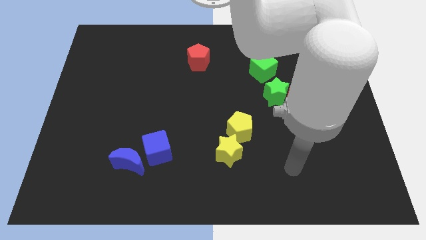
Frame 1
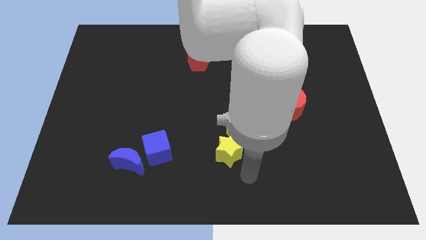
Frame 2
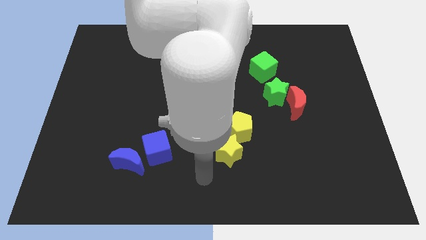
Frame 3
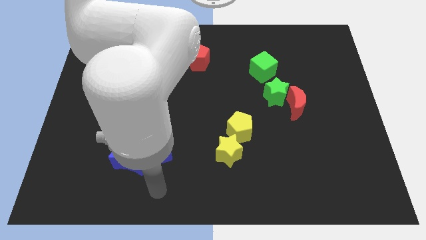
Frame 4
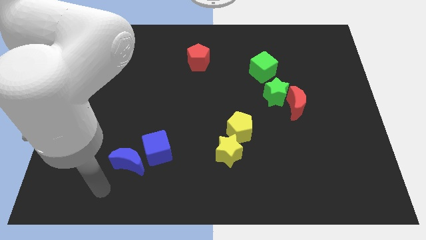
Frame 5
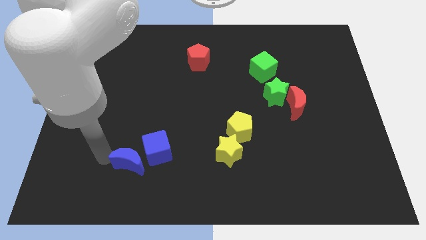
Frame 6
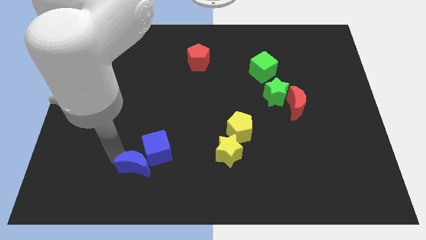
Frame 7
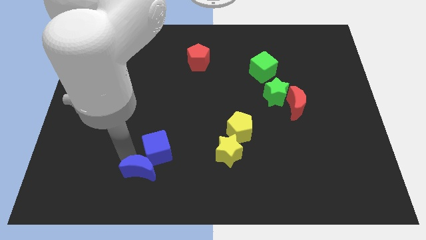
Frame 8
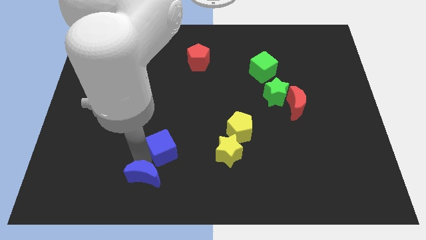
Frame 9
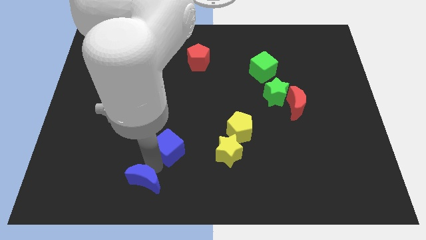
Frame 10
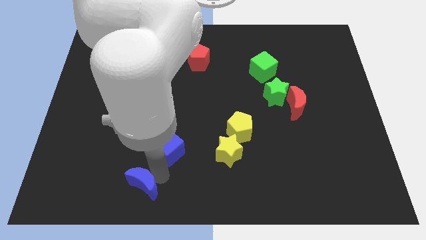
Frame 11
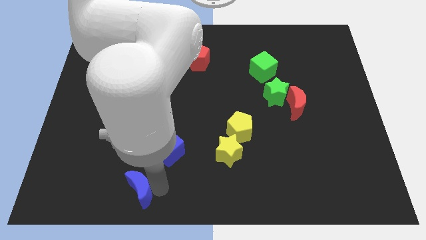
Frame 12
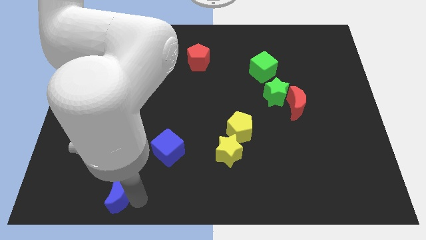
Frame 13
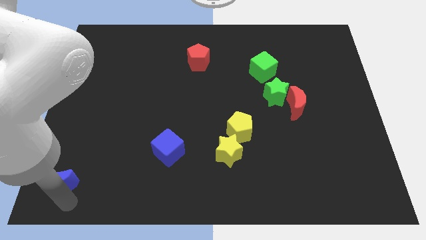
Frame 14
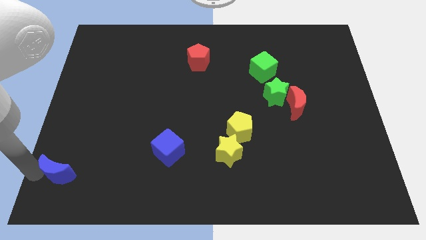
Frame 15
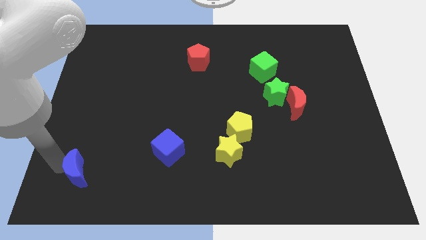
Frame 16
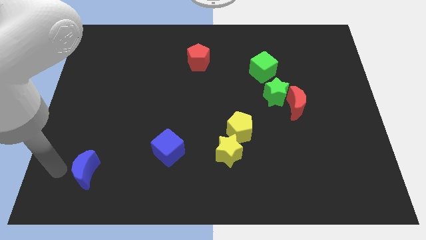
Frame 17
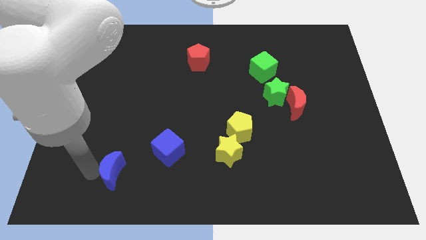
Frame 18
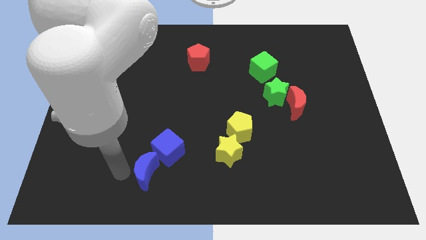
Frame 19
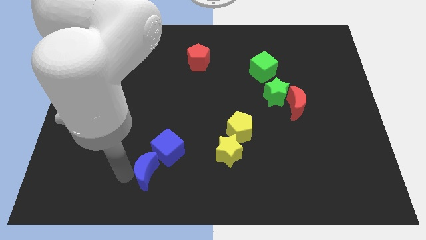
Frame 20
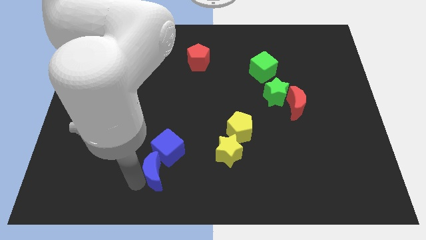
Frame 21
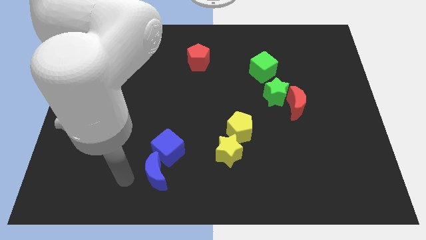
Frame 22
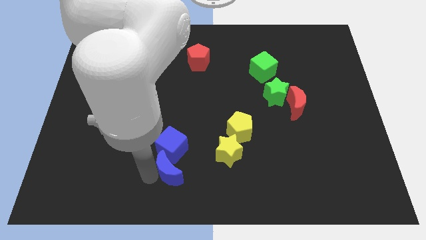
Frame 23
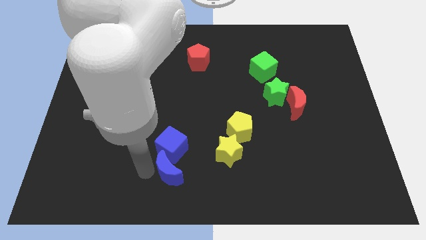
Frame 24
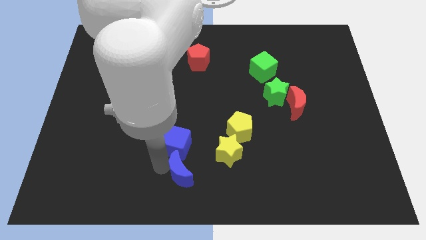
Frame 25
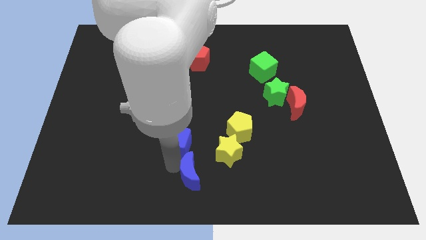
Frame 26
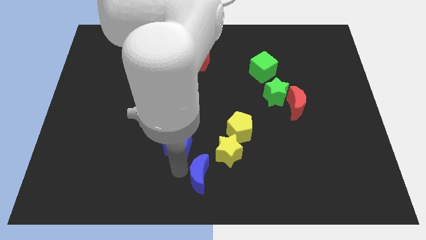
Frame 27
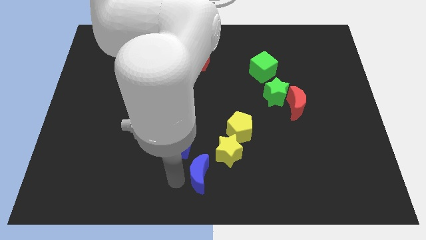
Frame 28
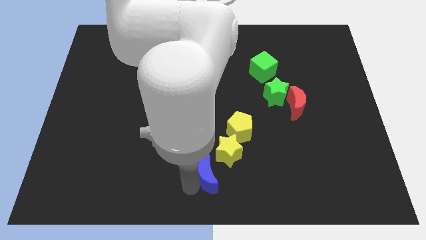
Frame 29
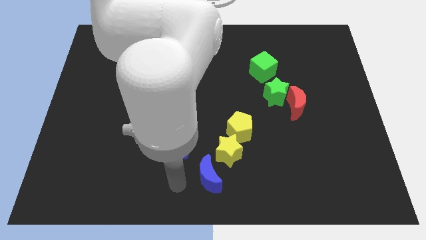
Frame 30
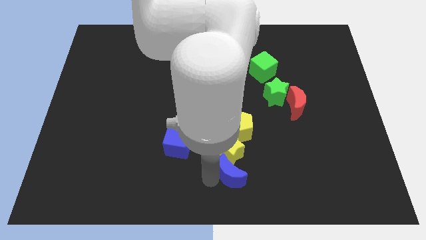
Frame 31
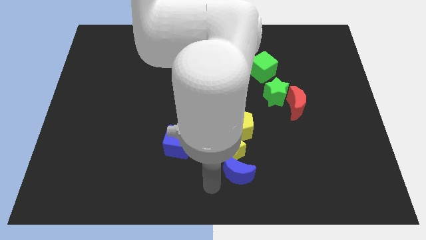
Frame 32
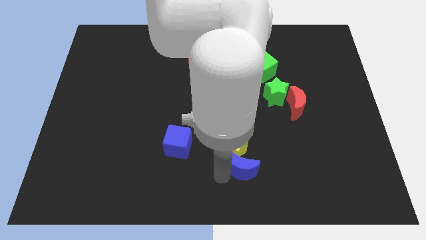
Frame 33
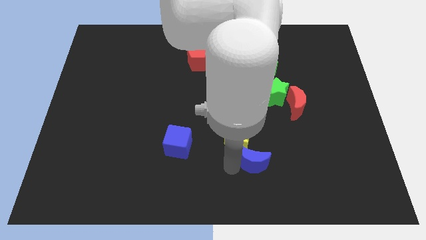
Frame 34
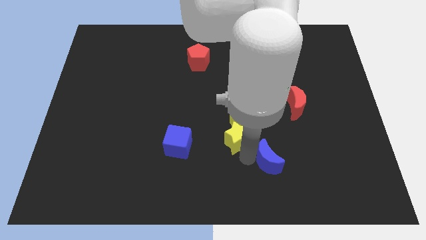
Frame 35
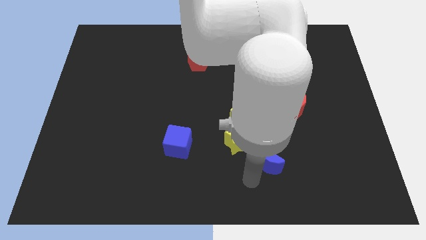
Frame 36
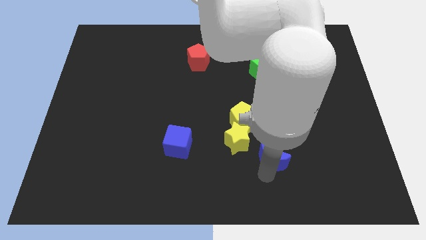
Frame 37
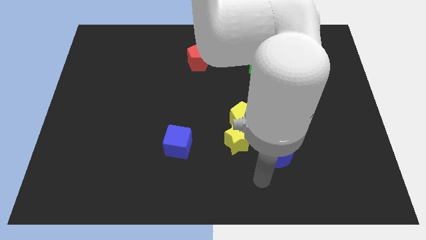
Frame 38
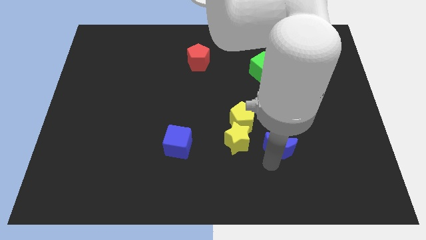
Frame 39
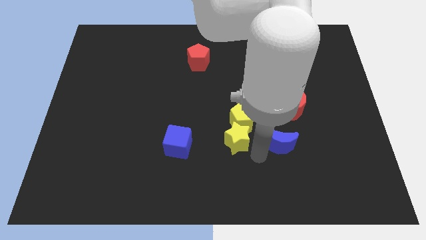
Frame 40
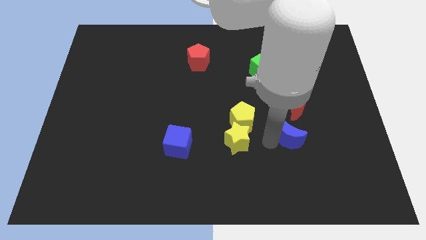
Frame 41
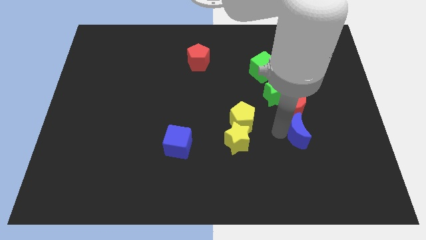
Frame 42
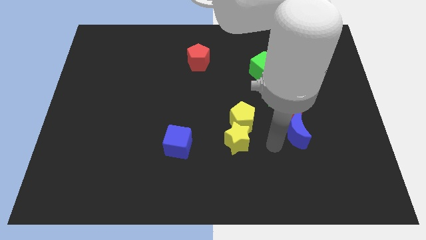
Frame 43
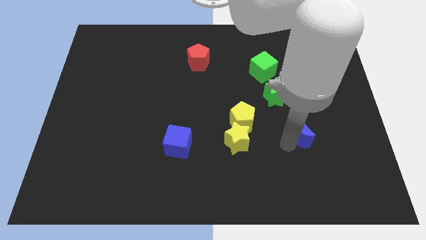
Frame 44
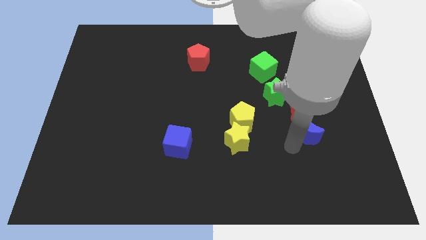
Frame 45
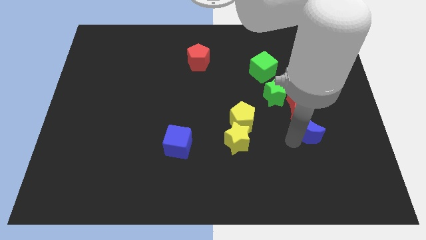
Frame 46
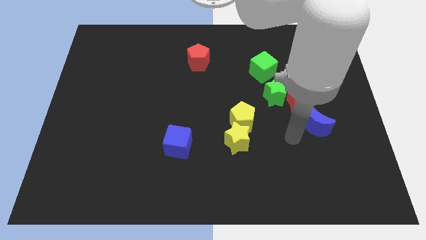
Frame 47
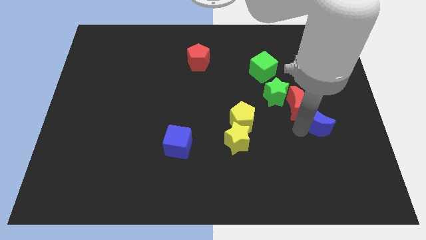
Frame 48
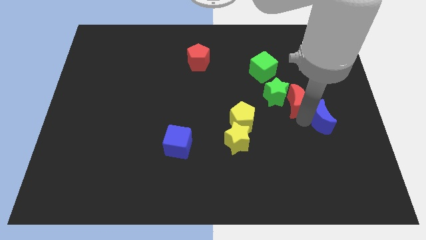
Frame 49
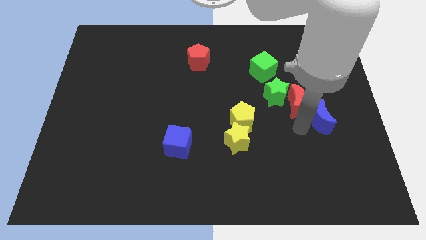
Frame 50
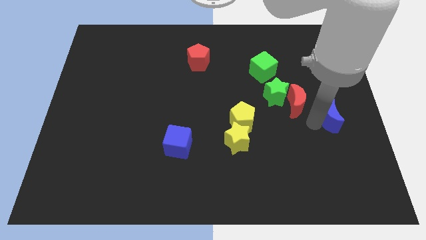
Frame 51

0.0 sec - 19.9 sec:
slide the blue moon to the right side

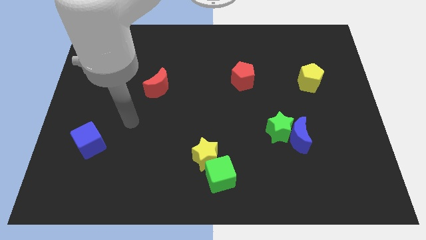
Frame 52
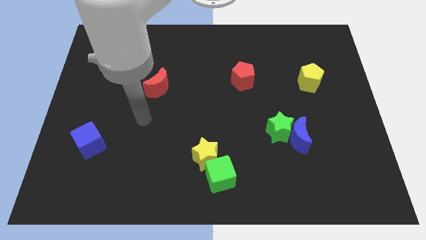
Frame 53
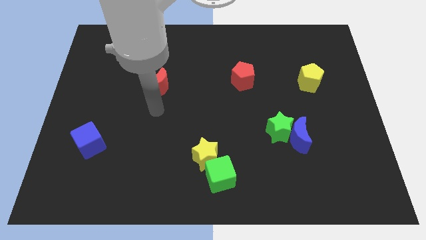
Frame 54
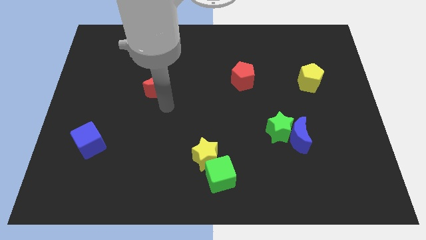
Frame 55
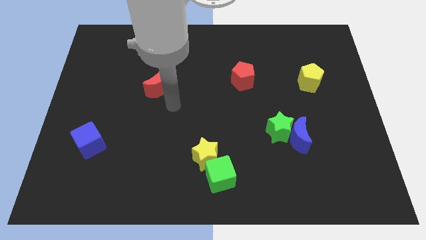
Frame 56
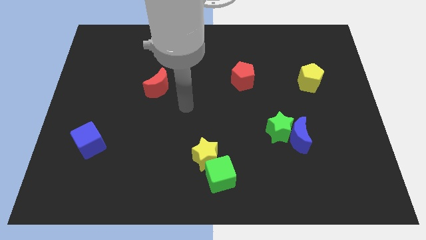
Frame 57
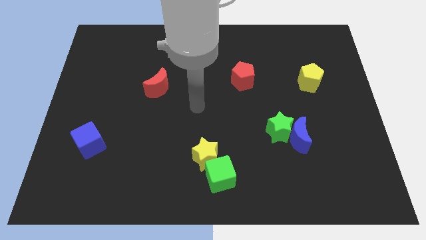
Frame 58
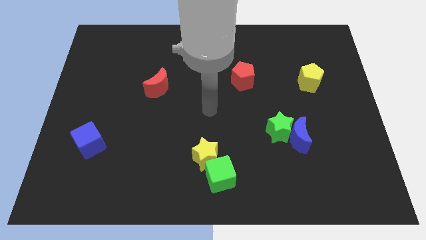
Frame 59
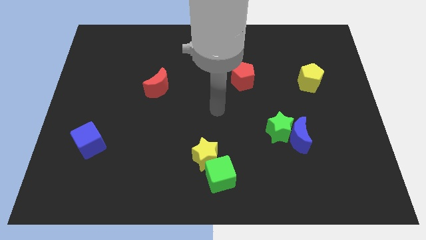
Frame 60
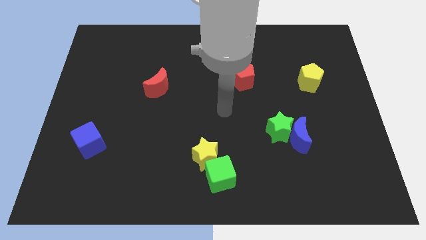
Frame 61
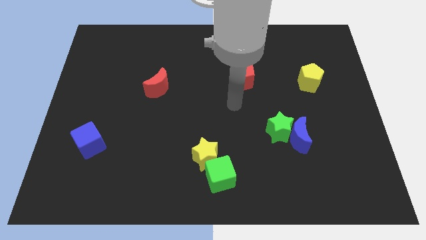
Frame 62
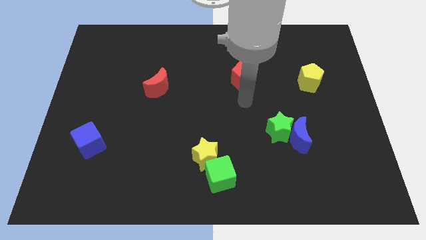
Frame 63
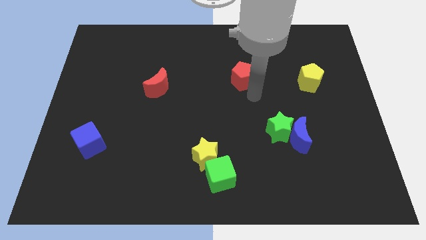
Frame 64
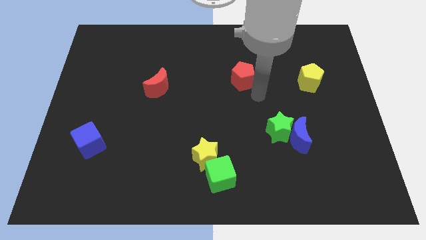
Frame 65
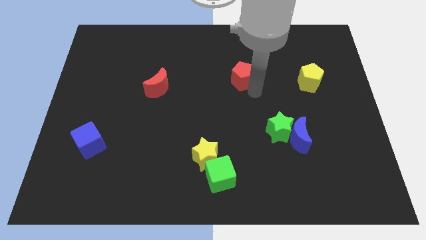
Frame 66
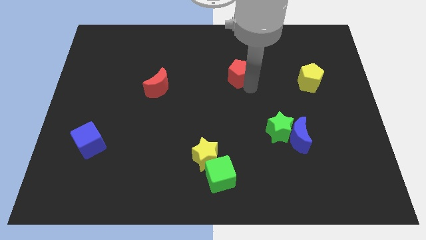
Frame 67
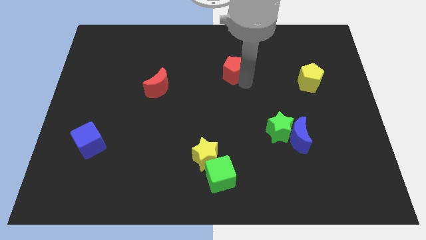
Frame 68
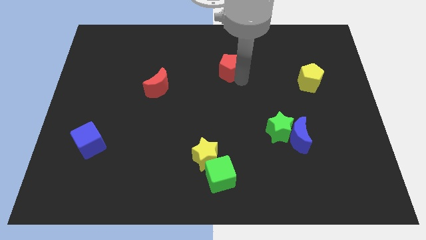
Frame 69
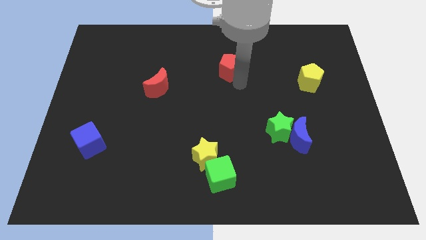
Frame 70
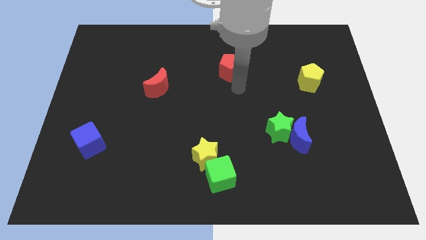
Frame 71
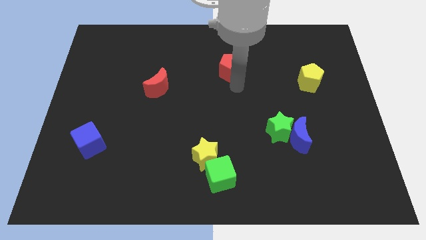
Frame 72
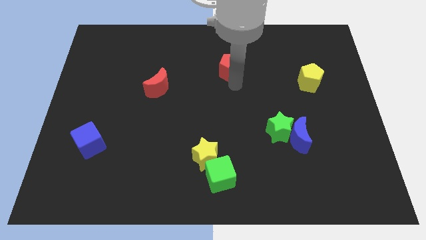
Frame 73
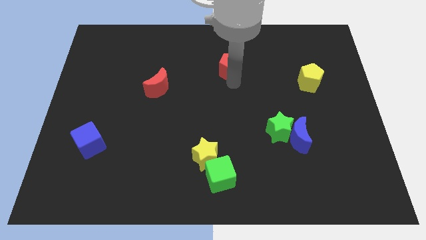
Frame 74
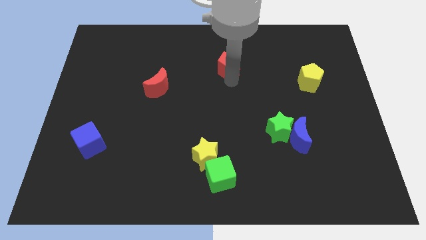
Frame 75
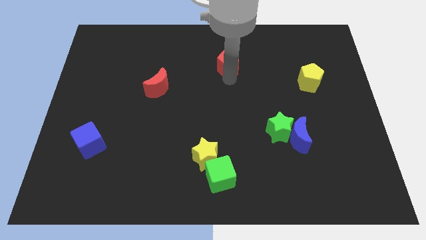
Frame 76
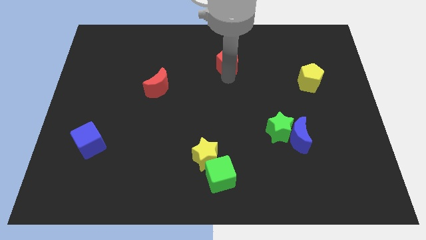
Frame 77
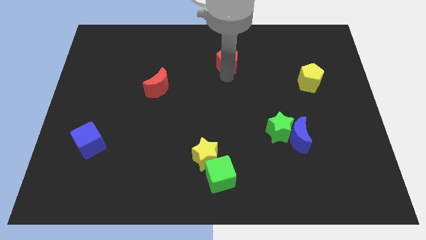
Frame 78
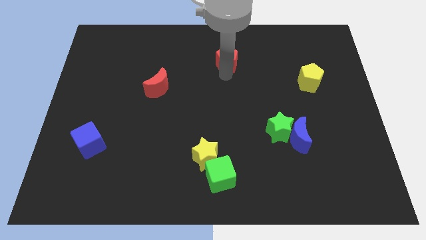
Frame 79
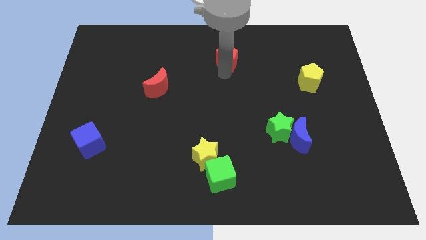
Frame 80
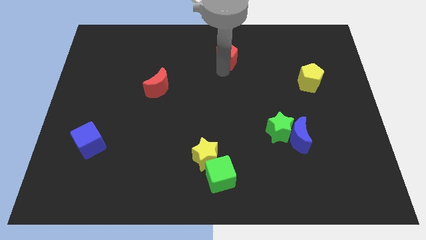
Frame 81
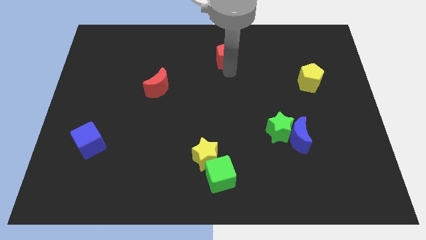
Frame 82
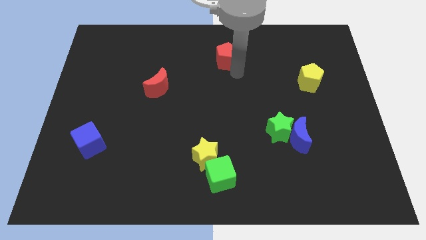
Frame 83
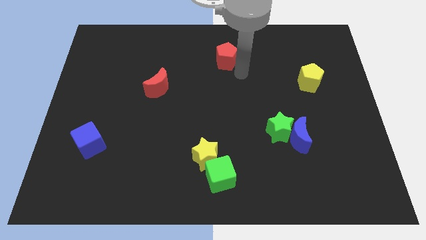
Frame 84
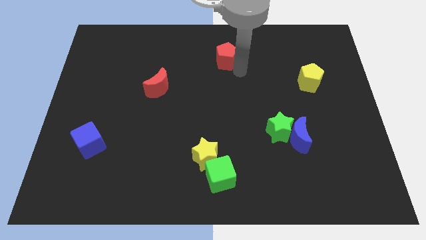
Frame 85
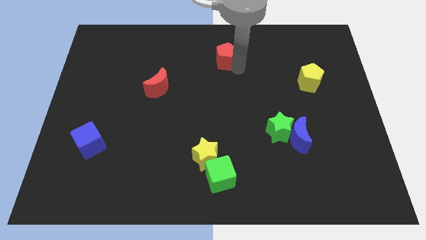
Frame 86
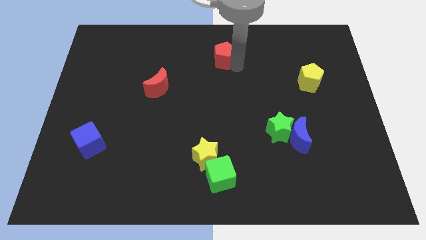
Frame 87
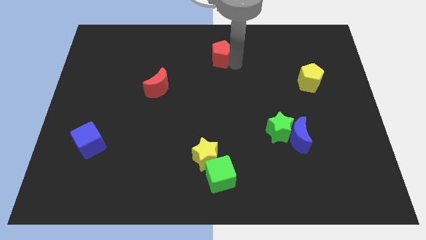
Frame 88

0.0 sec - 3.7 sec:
slide the red pentagon to the towards your base
